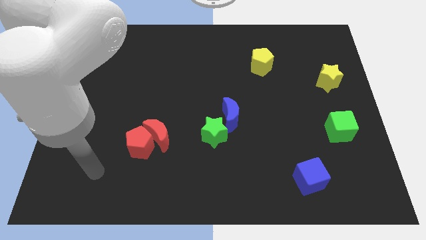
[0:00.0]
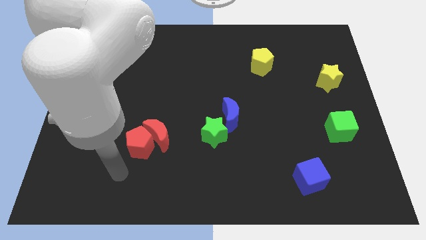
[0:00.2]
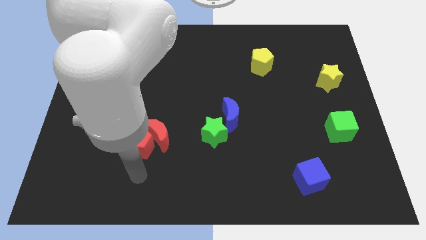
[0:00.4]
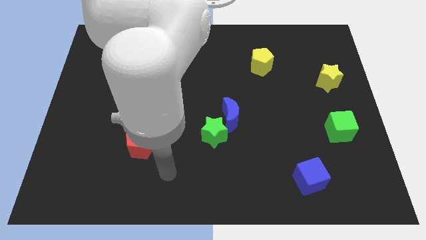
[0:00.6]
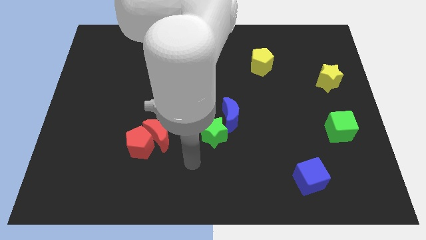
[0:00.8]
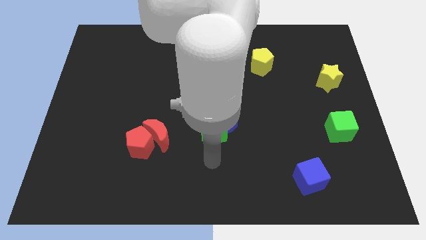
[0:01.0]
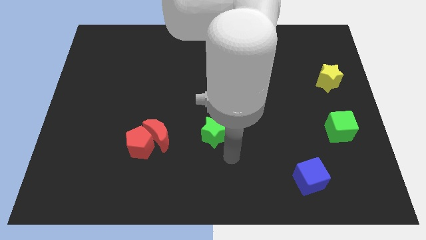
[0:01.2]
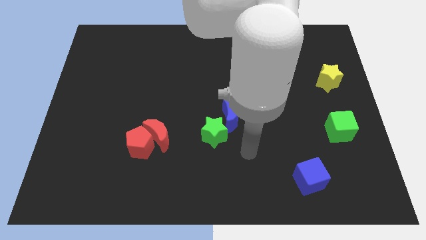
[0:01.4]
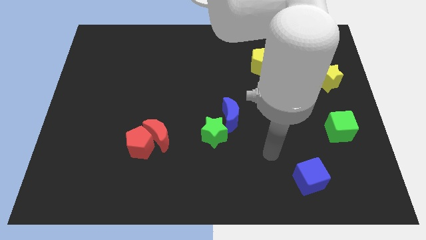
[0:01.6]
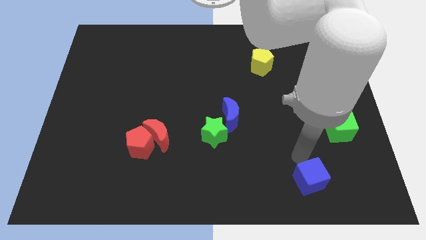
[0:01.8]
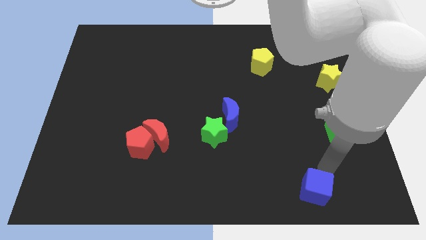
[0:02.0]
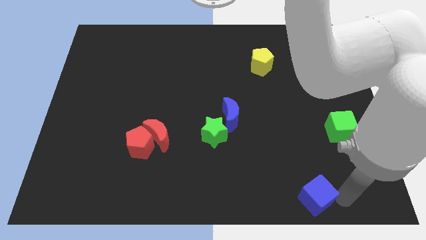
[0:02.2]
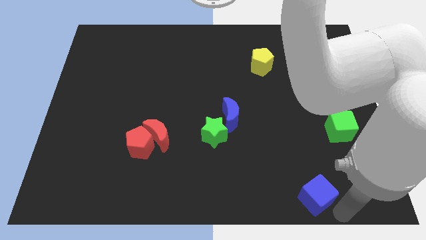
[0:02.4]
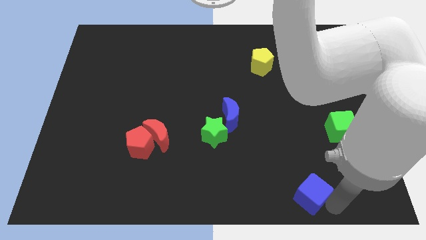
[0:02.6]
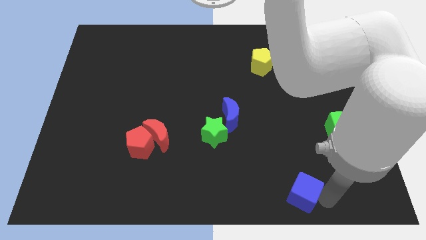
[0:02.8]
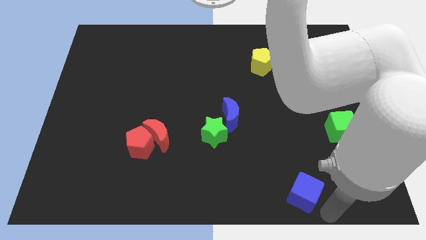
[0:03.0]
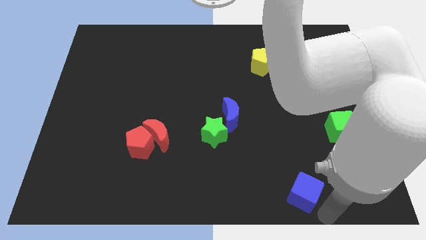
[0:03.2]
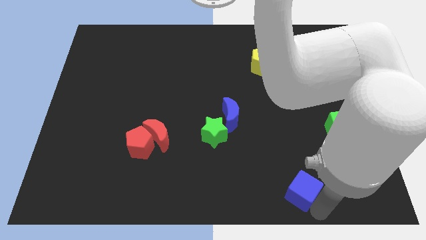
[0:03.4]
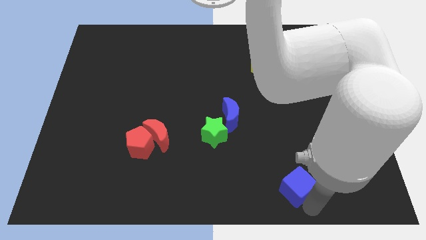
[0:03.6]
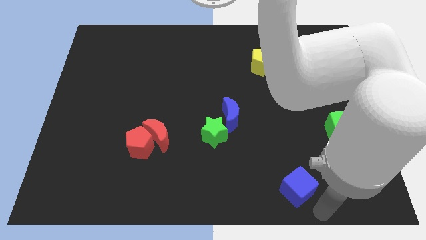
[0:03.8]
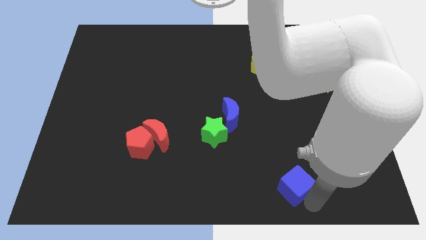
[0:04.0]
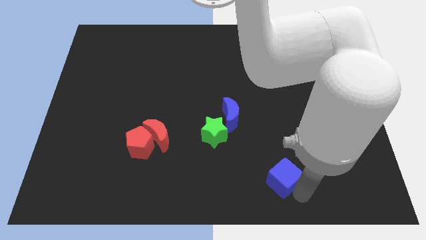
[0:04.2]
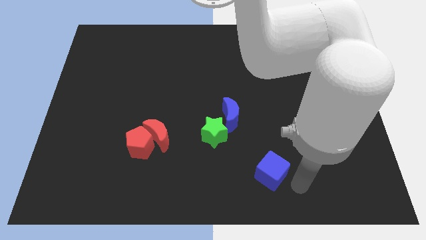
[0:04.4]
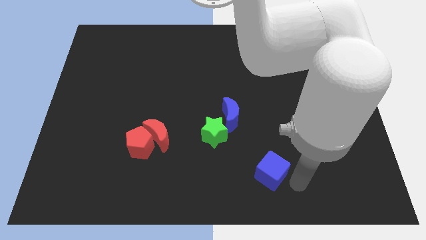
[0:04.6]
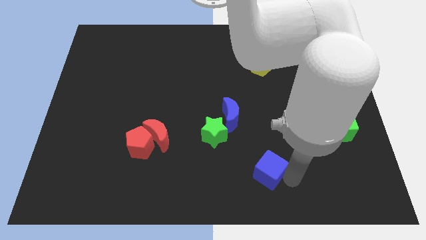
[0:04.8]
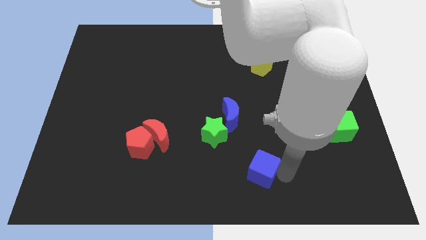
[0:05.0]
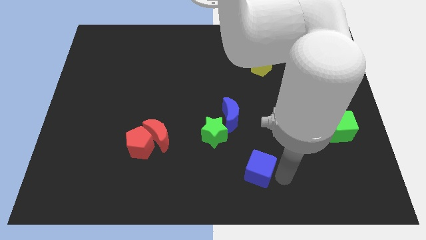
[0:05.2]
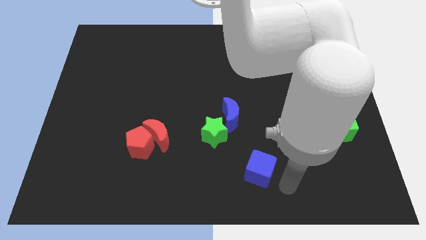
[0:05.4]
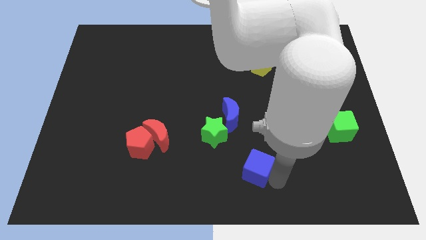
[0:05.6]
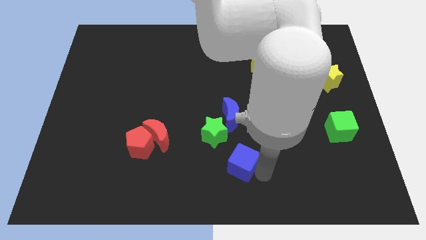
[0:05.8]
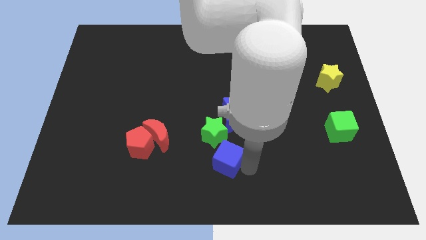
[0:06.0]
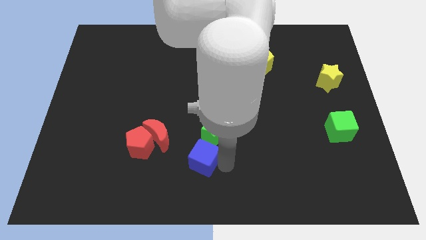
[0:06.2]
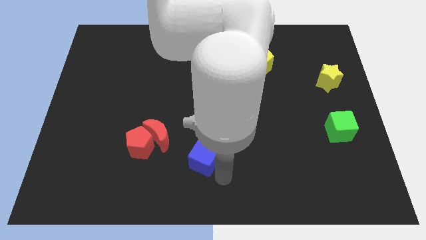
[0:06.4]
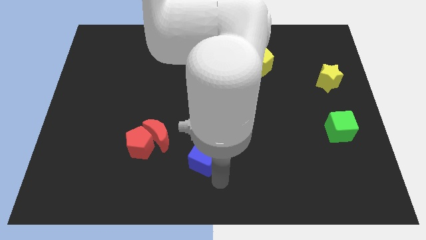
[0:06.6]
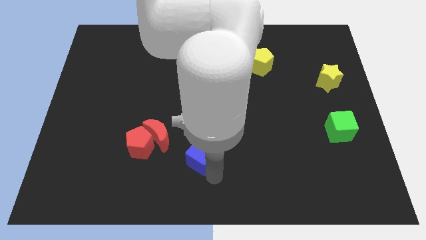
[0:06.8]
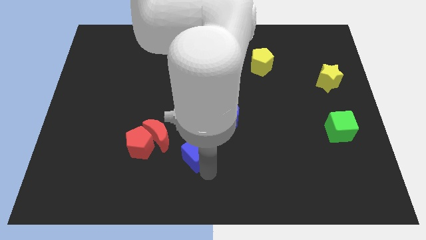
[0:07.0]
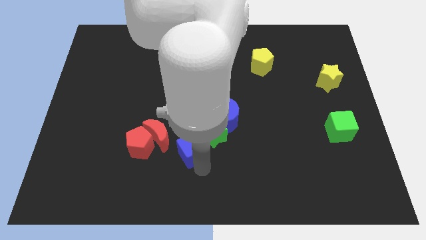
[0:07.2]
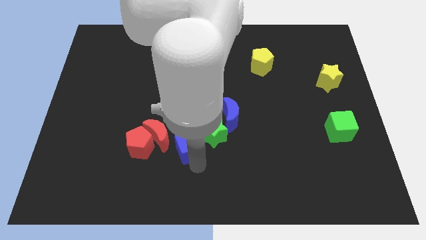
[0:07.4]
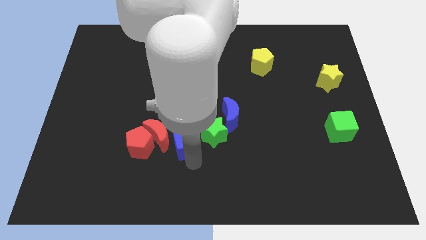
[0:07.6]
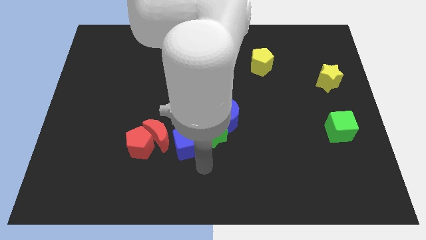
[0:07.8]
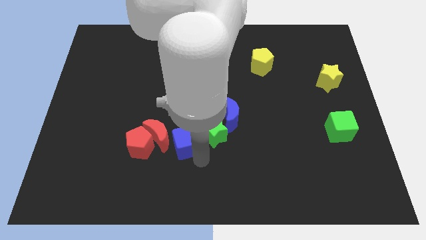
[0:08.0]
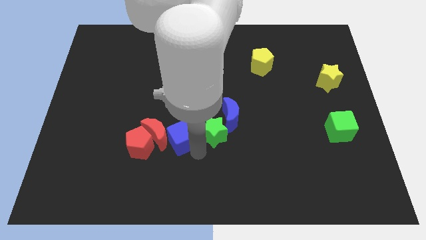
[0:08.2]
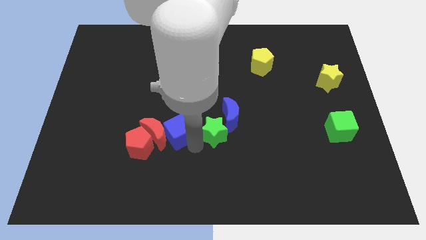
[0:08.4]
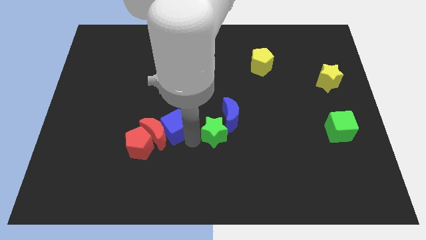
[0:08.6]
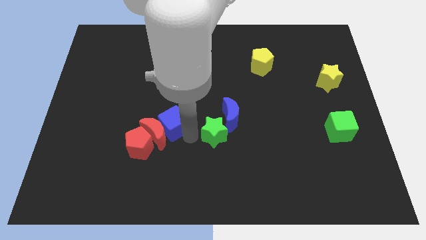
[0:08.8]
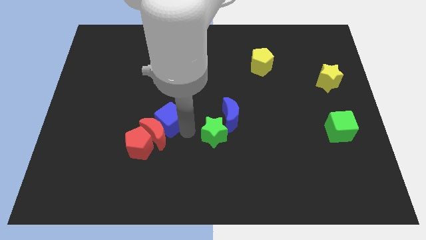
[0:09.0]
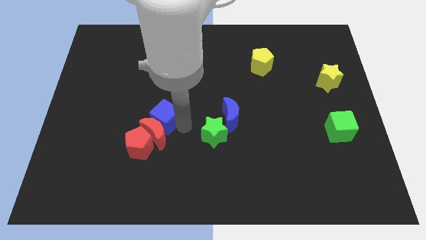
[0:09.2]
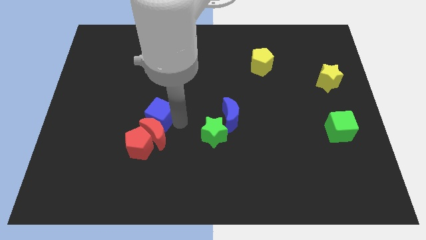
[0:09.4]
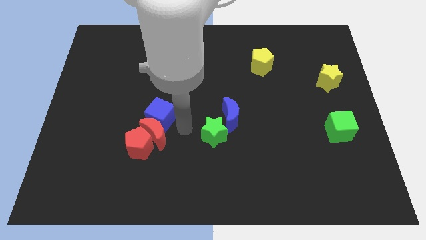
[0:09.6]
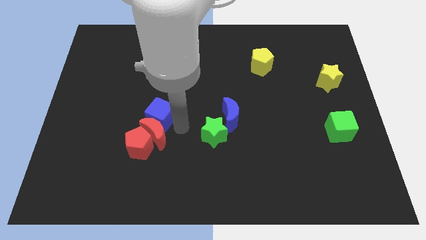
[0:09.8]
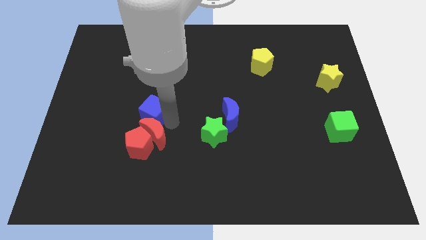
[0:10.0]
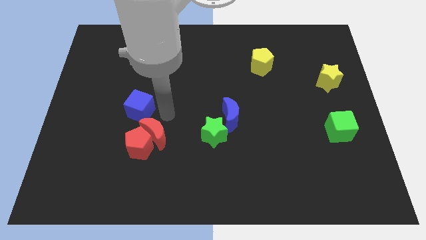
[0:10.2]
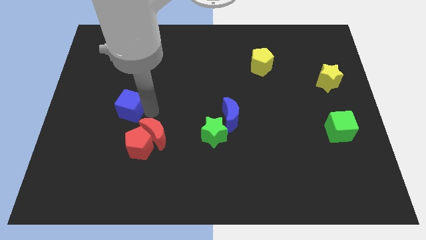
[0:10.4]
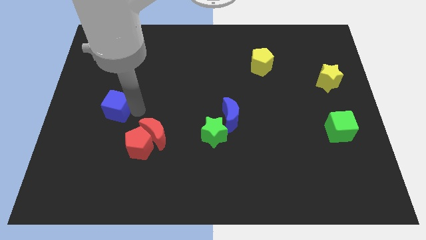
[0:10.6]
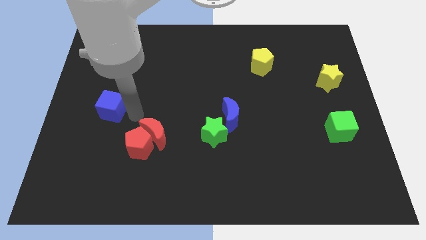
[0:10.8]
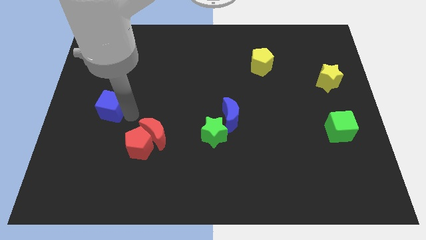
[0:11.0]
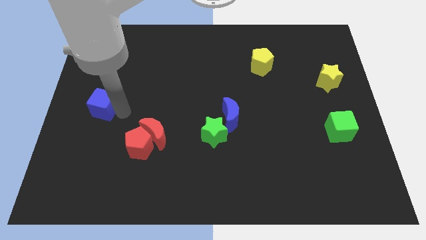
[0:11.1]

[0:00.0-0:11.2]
push the blue cube to the left side of the board

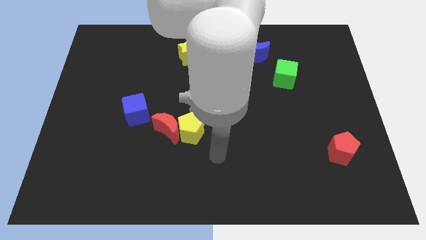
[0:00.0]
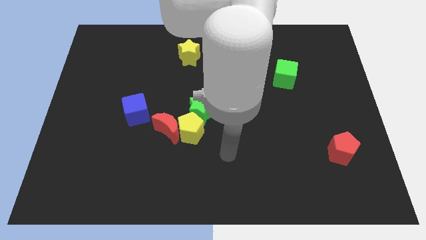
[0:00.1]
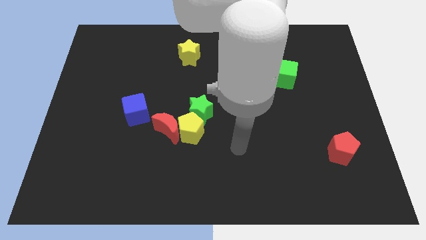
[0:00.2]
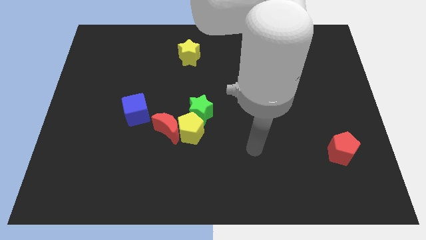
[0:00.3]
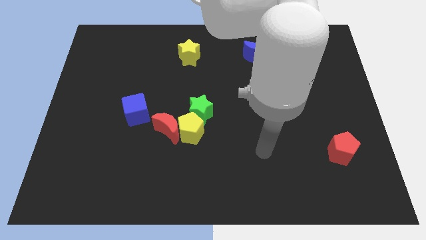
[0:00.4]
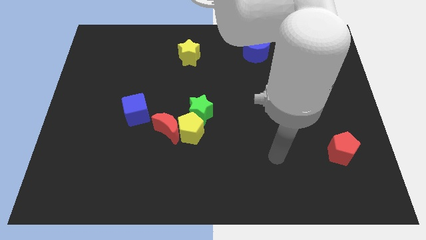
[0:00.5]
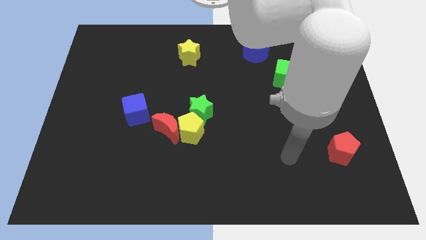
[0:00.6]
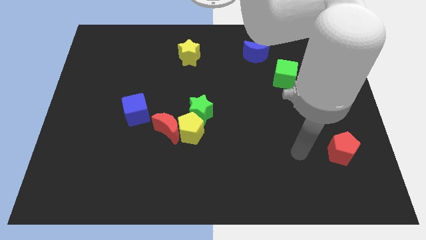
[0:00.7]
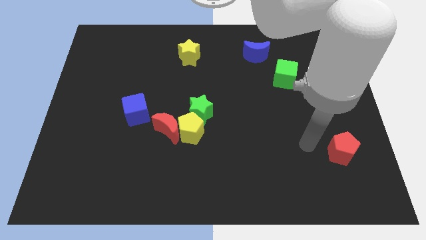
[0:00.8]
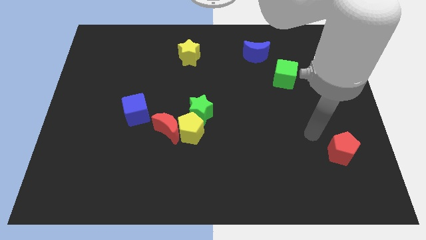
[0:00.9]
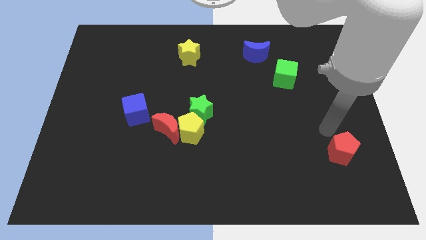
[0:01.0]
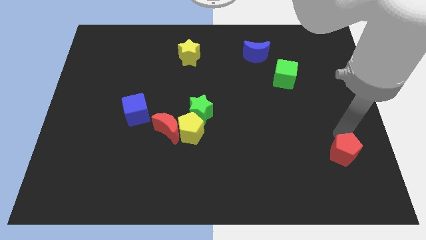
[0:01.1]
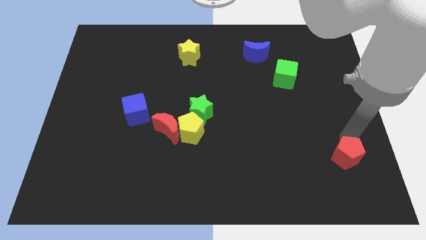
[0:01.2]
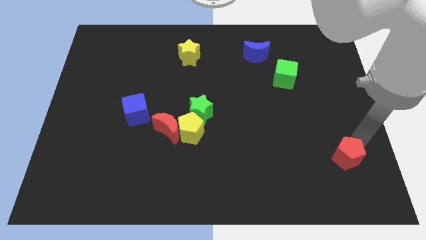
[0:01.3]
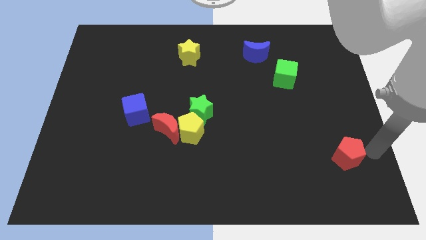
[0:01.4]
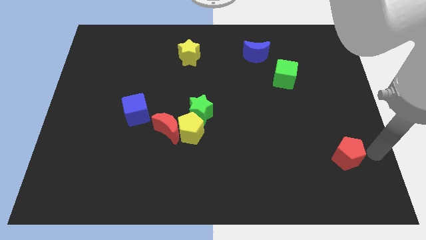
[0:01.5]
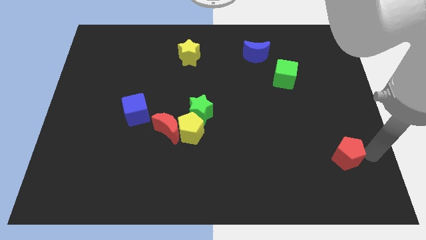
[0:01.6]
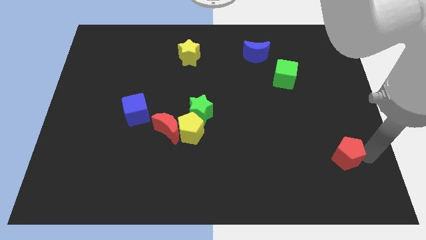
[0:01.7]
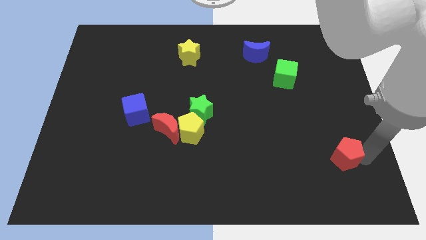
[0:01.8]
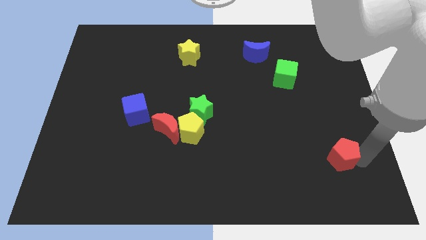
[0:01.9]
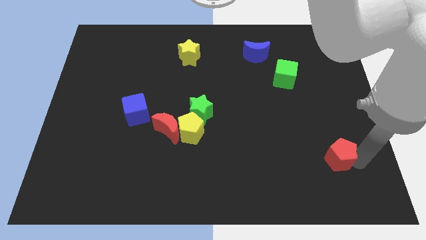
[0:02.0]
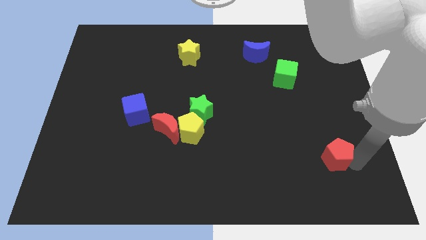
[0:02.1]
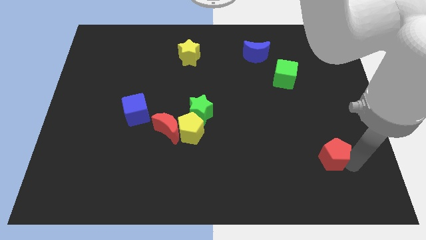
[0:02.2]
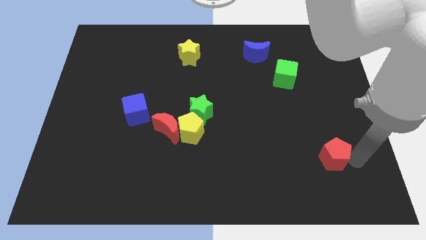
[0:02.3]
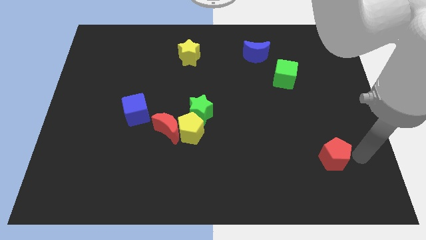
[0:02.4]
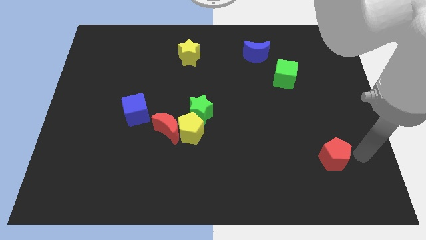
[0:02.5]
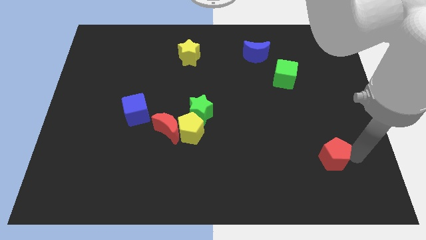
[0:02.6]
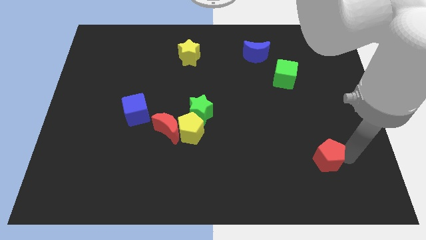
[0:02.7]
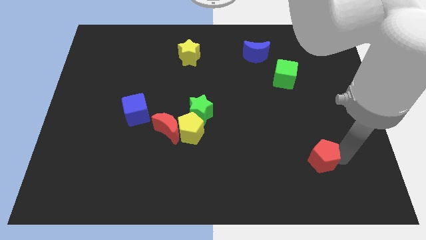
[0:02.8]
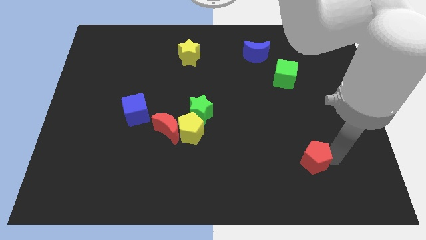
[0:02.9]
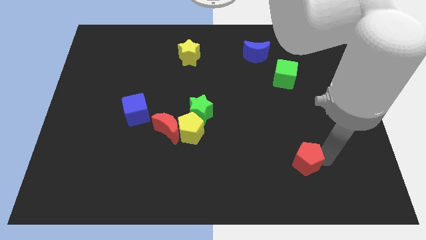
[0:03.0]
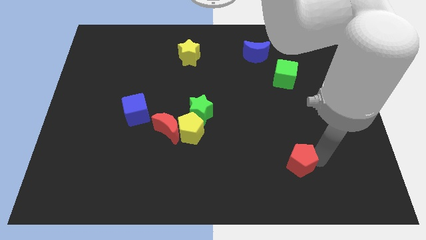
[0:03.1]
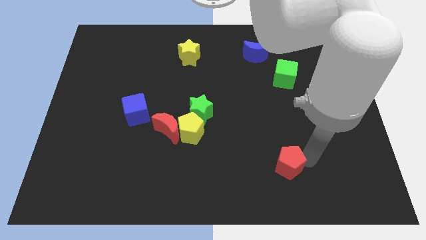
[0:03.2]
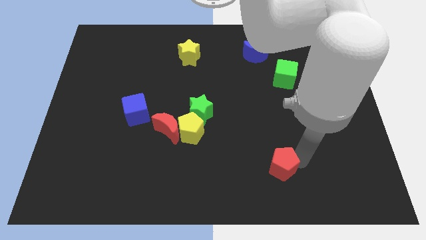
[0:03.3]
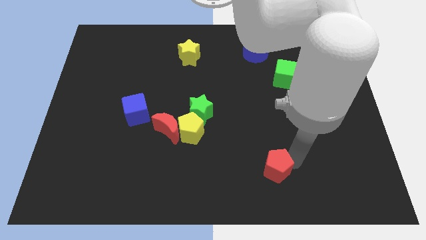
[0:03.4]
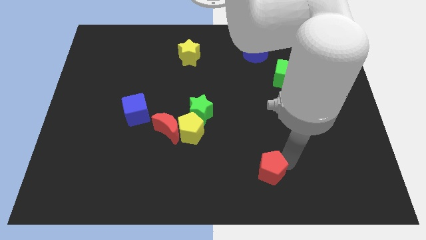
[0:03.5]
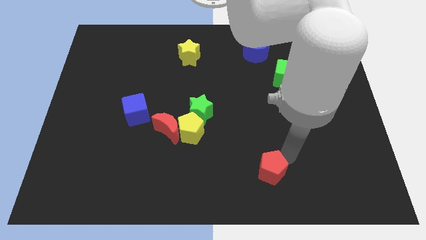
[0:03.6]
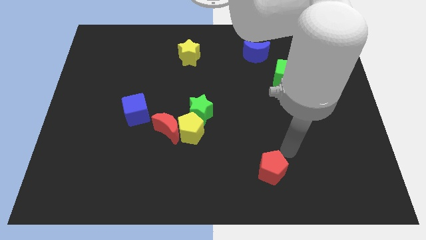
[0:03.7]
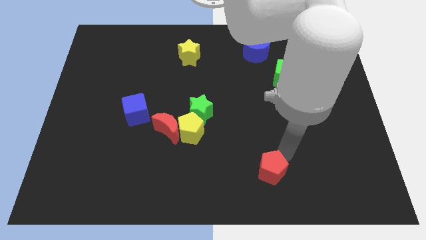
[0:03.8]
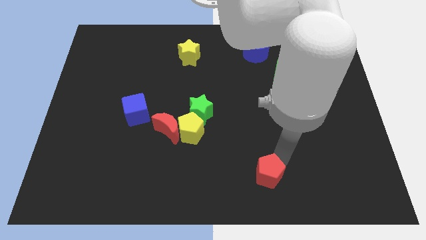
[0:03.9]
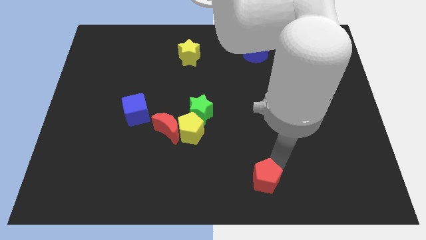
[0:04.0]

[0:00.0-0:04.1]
put the red pentagon to the bottom
